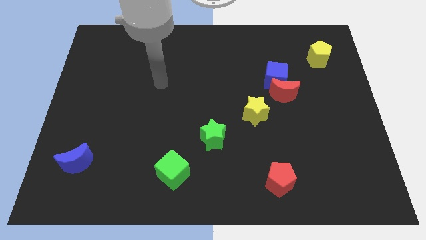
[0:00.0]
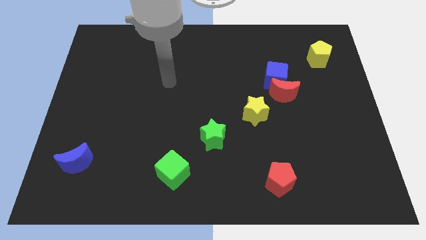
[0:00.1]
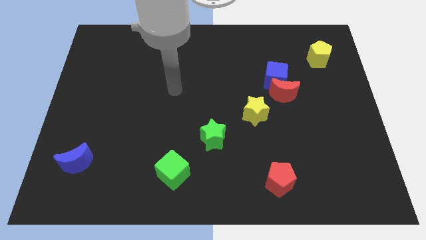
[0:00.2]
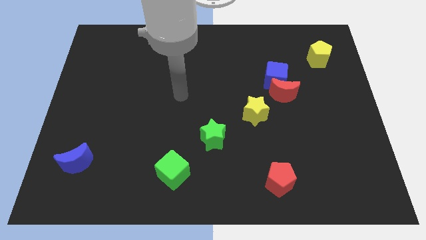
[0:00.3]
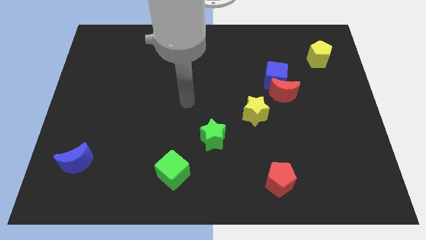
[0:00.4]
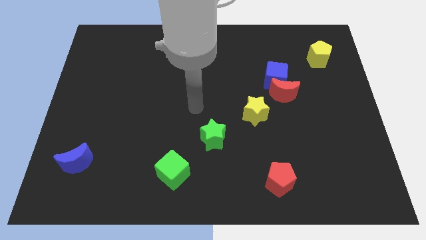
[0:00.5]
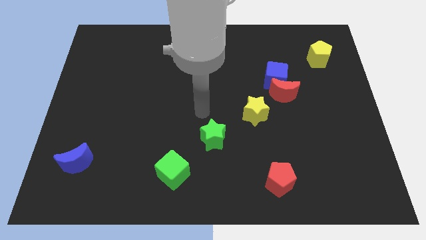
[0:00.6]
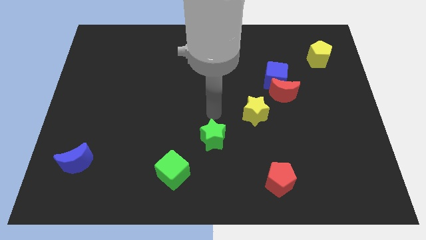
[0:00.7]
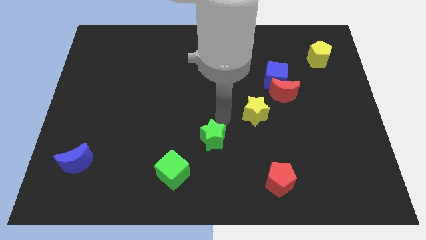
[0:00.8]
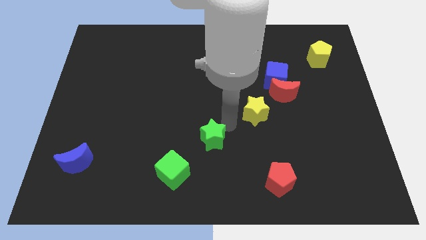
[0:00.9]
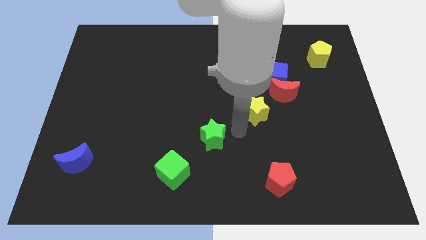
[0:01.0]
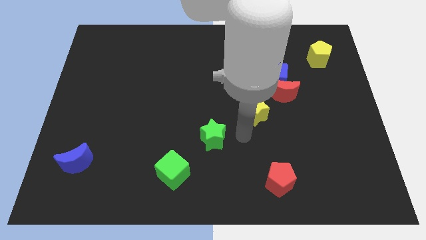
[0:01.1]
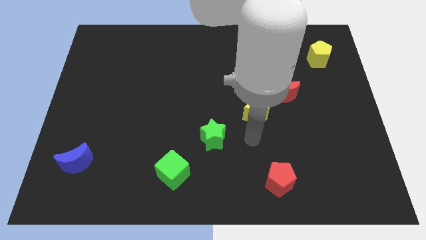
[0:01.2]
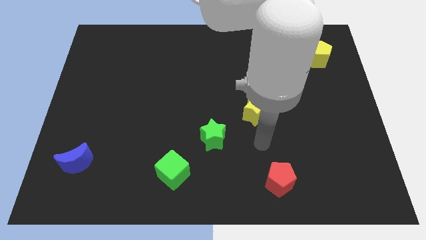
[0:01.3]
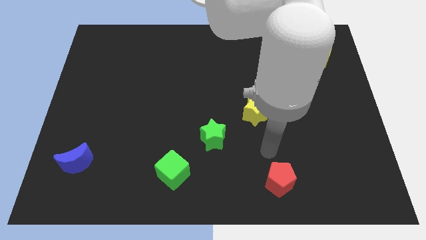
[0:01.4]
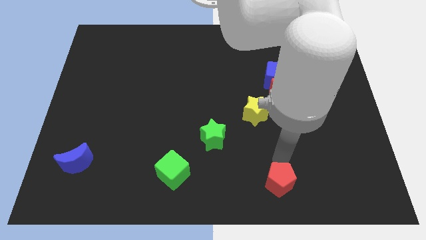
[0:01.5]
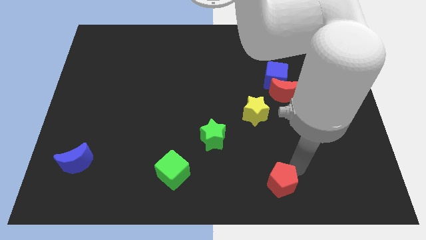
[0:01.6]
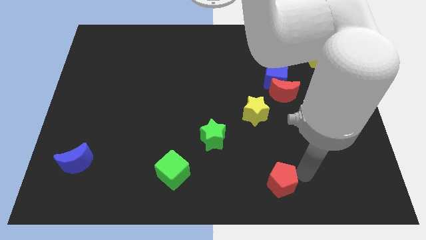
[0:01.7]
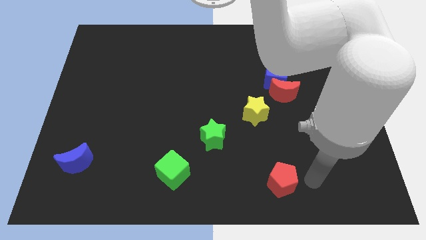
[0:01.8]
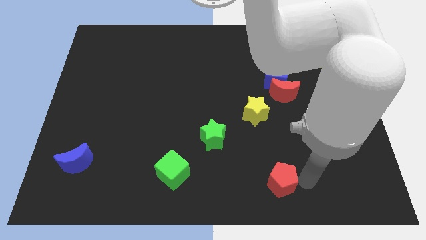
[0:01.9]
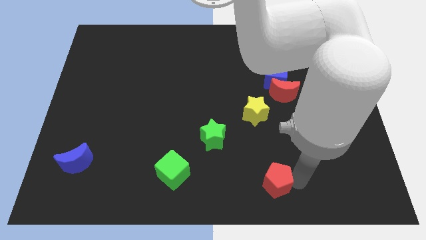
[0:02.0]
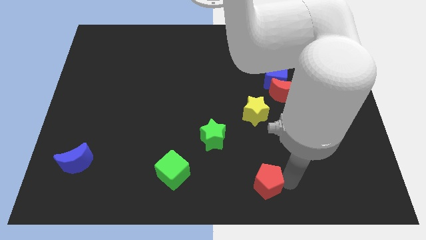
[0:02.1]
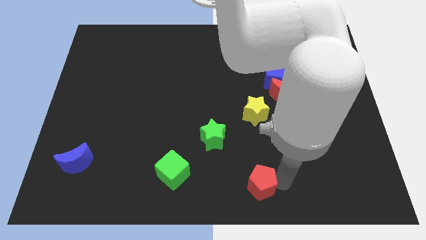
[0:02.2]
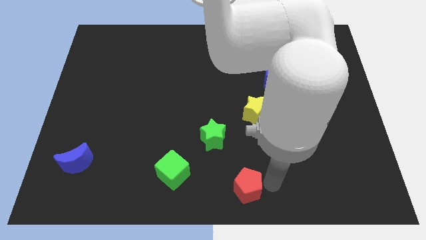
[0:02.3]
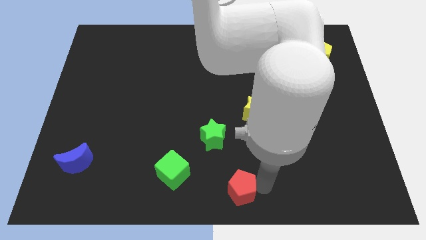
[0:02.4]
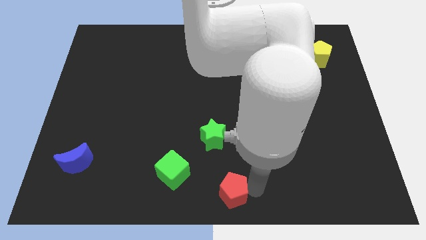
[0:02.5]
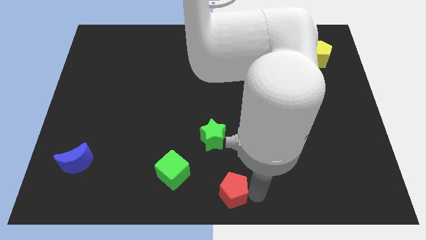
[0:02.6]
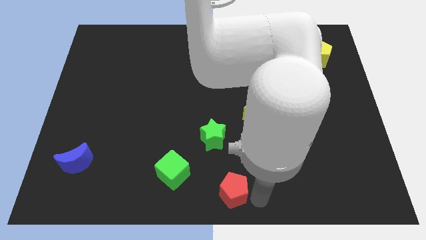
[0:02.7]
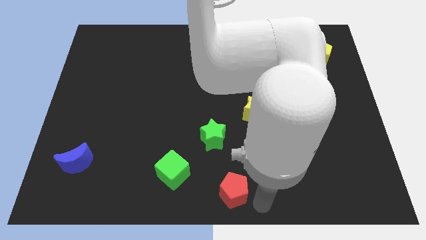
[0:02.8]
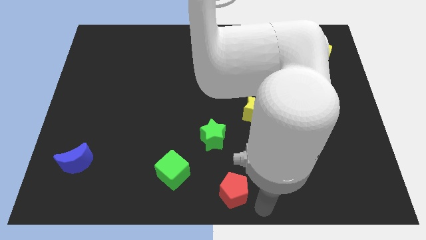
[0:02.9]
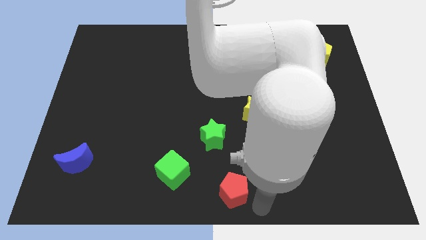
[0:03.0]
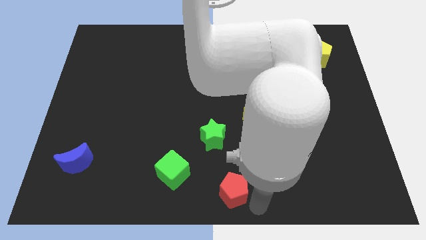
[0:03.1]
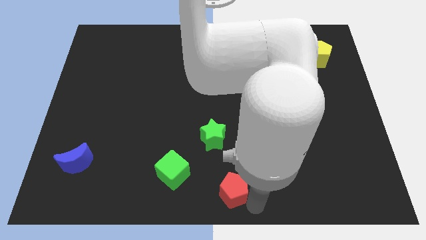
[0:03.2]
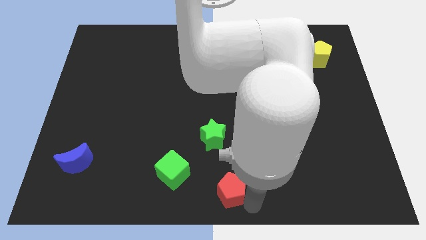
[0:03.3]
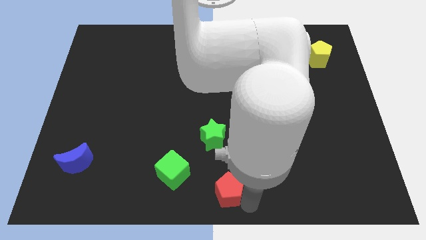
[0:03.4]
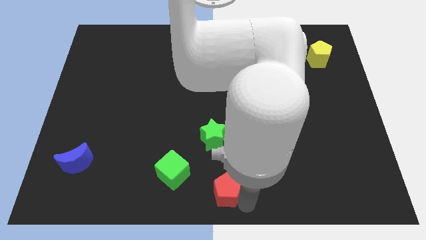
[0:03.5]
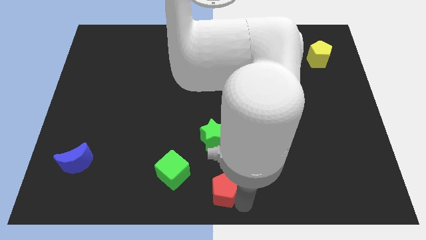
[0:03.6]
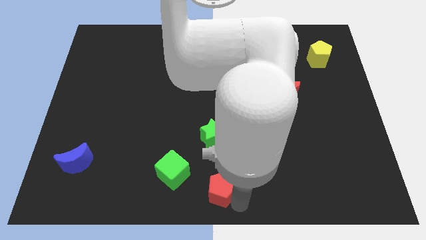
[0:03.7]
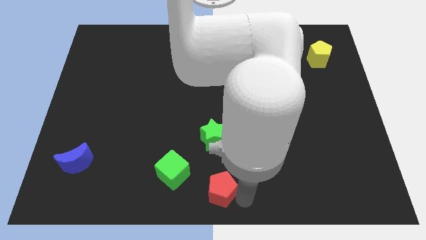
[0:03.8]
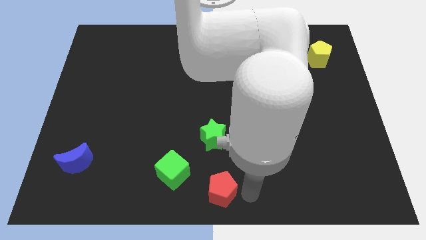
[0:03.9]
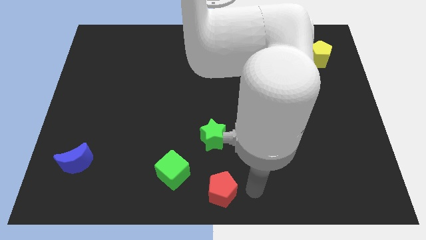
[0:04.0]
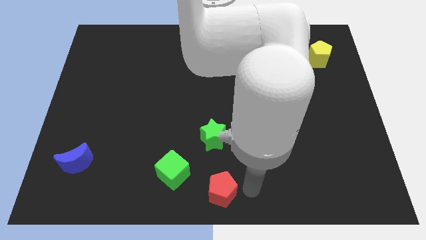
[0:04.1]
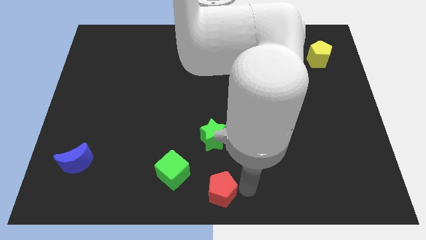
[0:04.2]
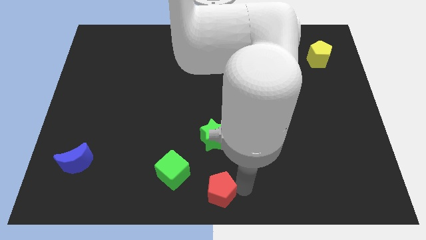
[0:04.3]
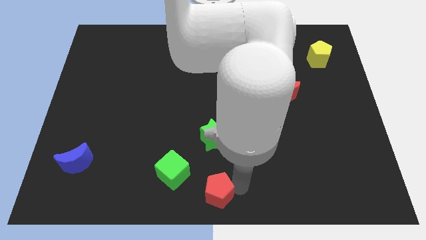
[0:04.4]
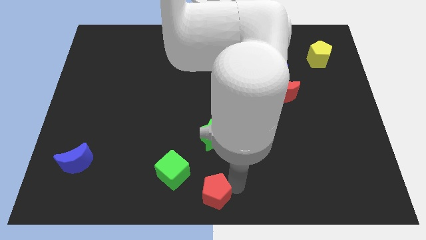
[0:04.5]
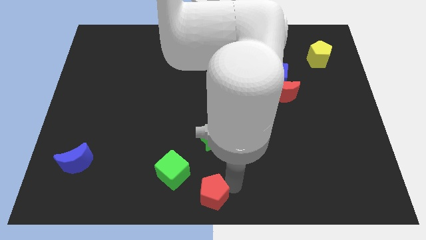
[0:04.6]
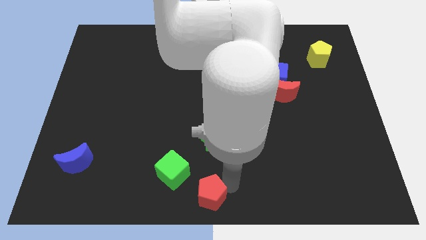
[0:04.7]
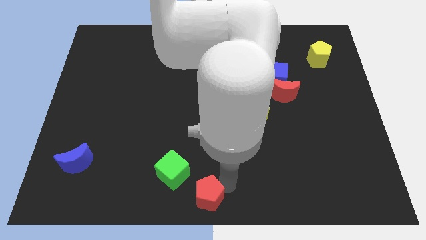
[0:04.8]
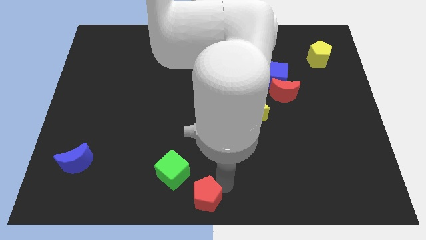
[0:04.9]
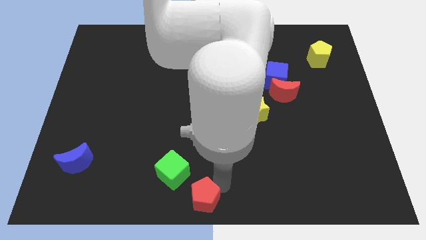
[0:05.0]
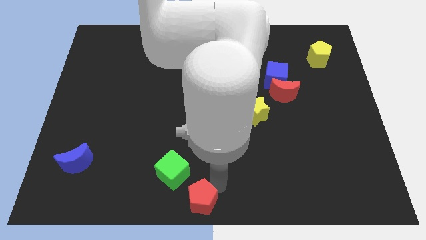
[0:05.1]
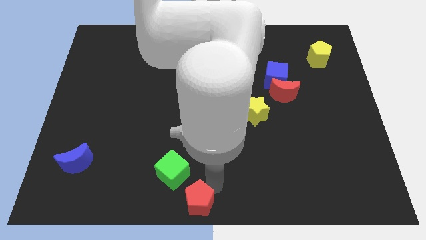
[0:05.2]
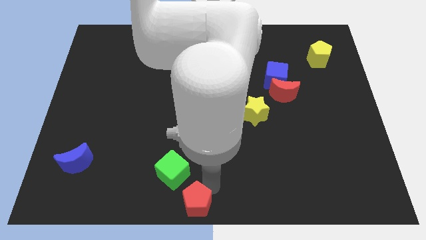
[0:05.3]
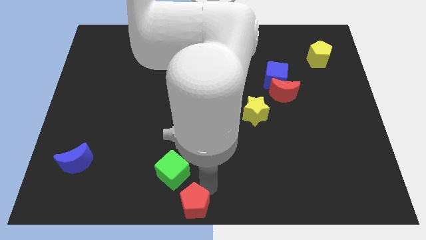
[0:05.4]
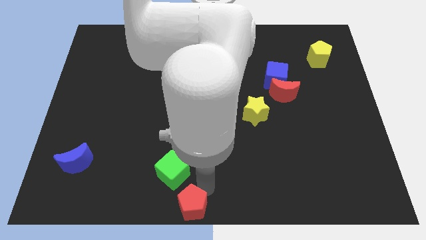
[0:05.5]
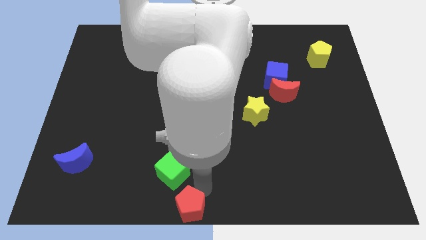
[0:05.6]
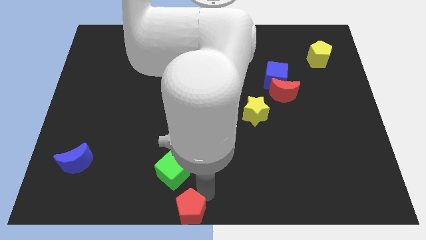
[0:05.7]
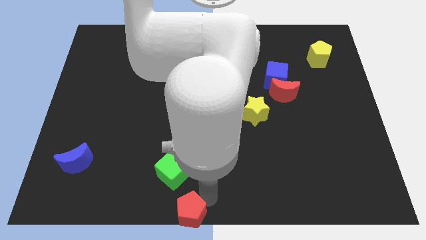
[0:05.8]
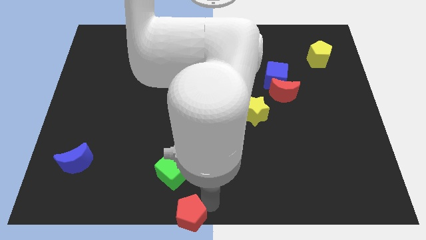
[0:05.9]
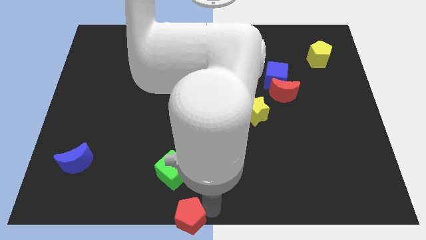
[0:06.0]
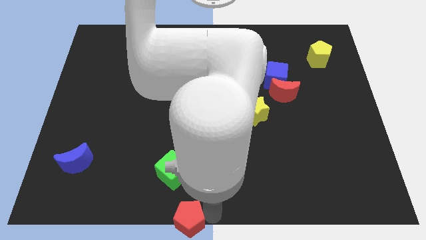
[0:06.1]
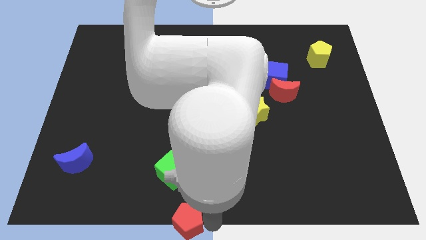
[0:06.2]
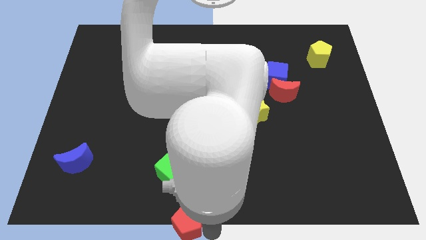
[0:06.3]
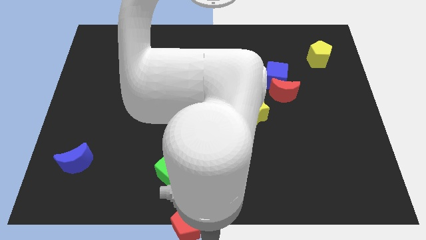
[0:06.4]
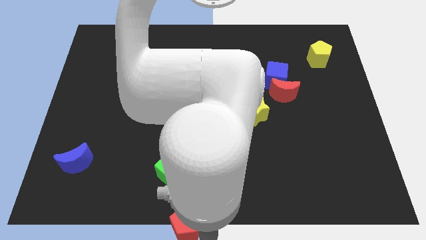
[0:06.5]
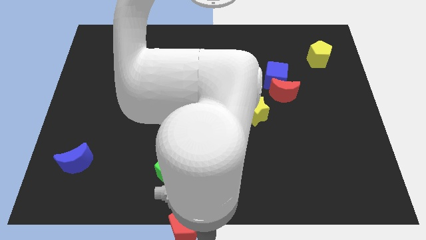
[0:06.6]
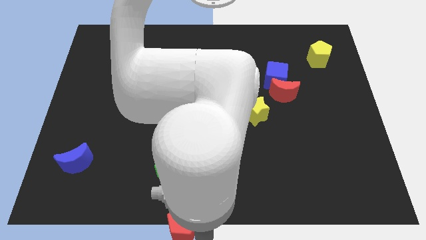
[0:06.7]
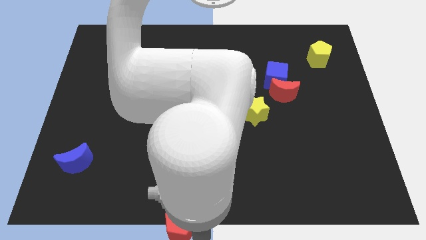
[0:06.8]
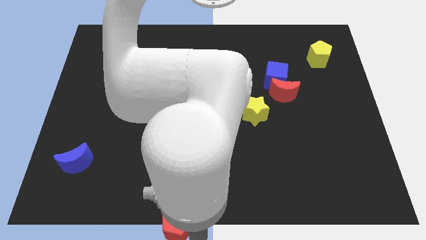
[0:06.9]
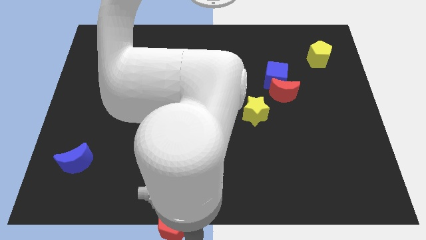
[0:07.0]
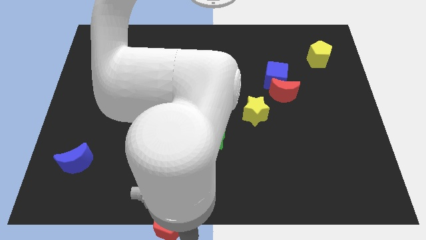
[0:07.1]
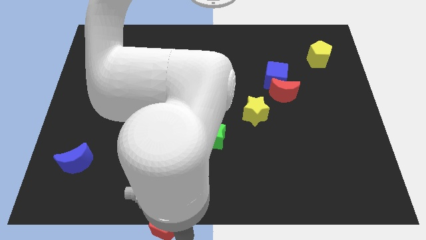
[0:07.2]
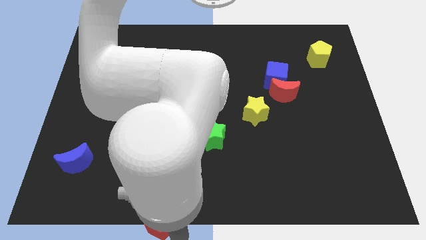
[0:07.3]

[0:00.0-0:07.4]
slide the red pentagon to the left

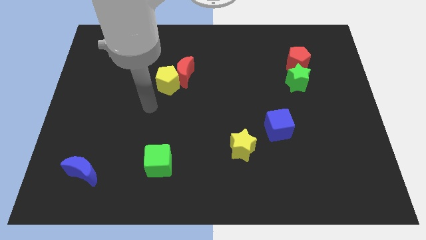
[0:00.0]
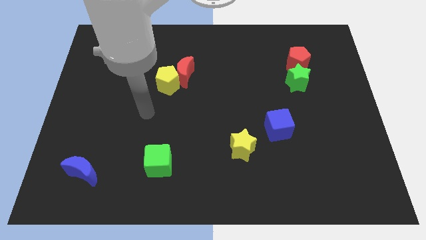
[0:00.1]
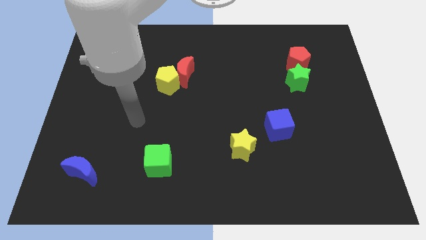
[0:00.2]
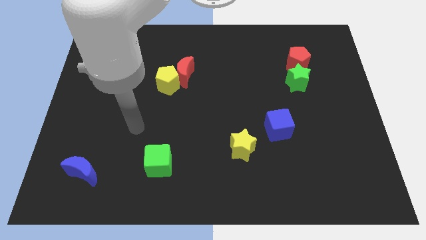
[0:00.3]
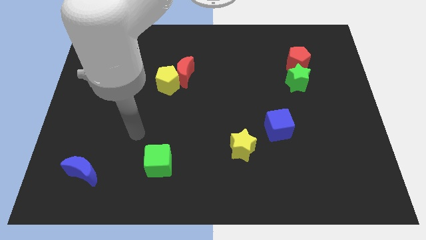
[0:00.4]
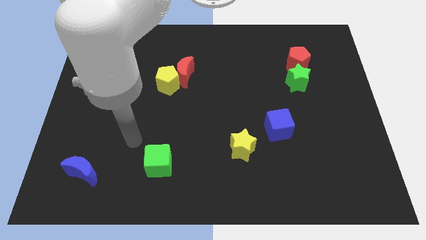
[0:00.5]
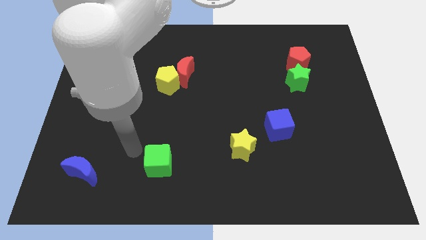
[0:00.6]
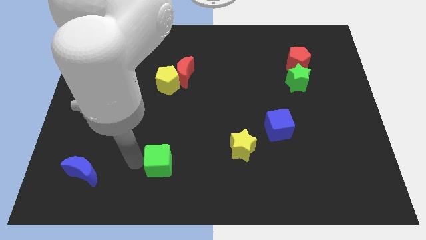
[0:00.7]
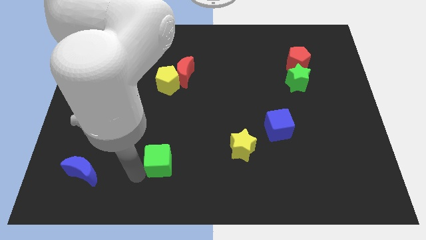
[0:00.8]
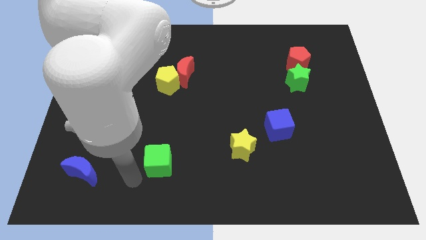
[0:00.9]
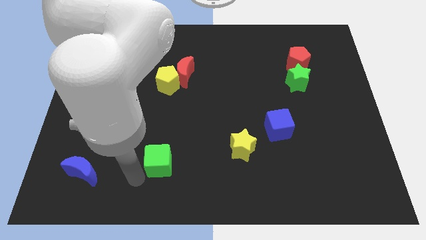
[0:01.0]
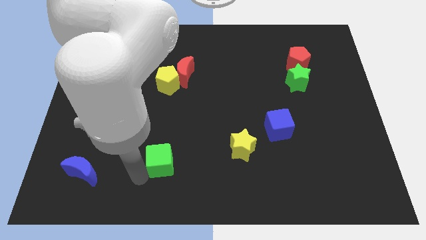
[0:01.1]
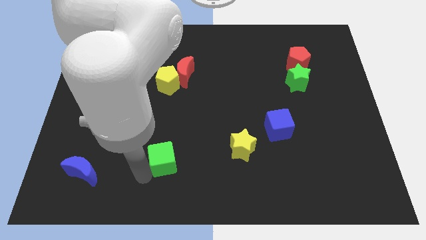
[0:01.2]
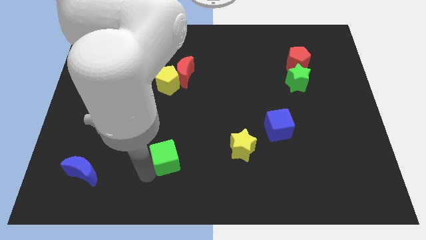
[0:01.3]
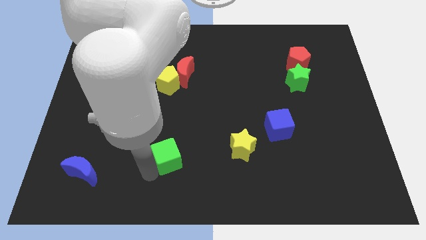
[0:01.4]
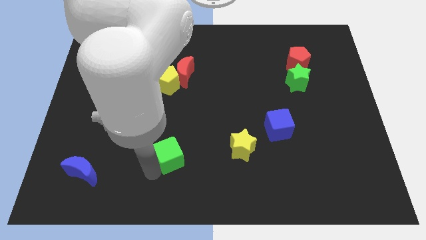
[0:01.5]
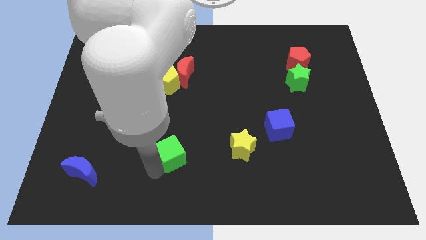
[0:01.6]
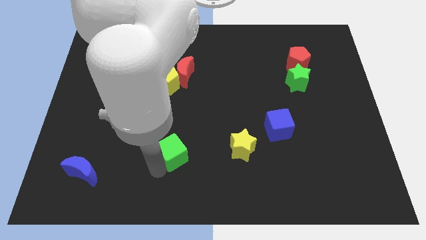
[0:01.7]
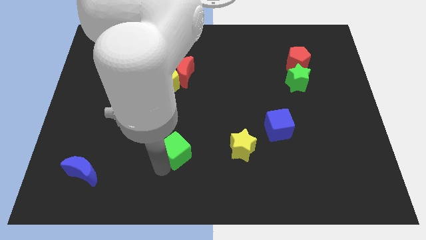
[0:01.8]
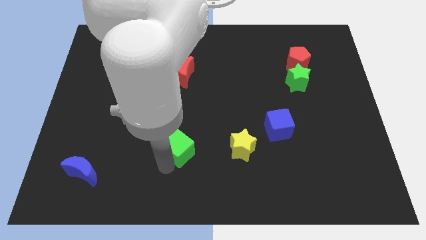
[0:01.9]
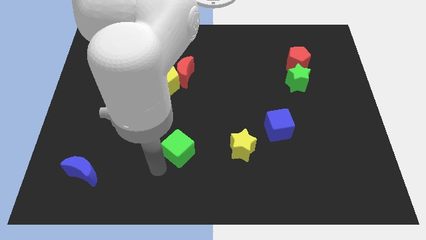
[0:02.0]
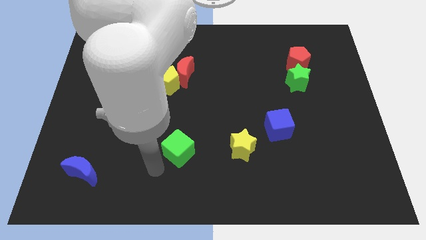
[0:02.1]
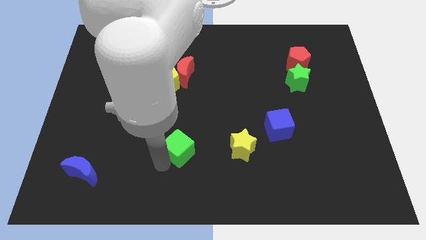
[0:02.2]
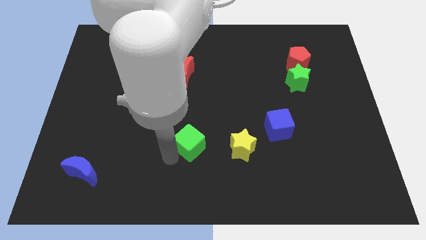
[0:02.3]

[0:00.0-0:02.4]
move the green cube a little upwards and then to the right
